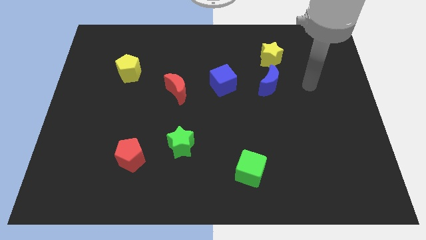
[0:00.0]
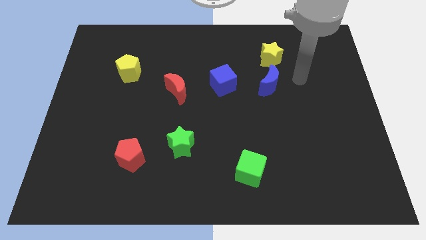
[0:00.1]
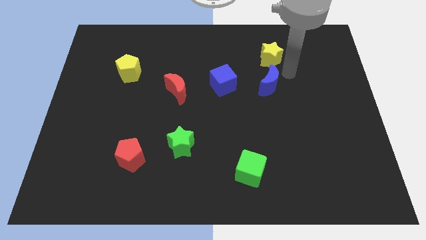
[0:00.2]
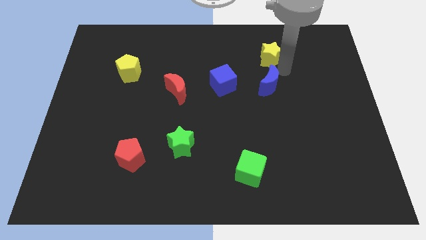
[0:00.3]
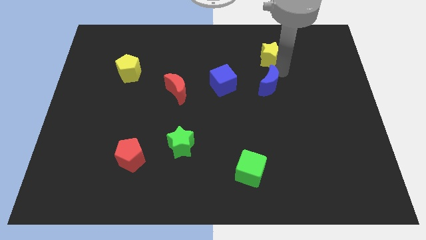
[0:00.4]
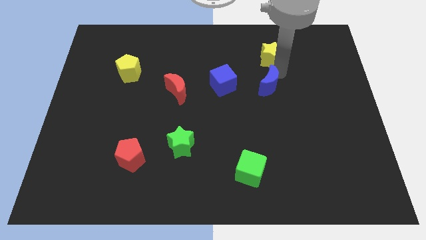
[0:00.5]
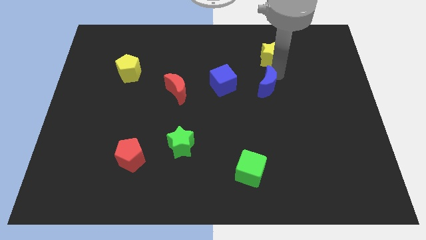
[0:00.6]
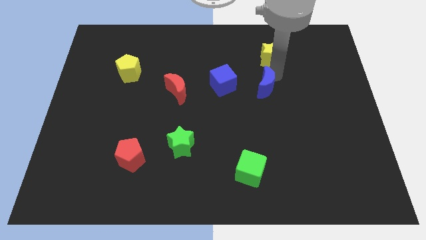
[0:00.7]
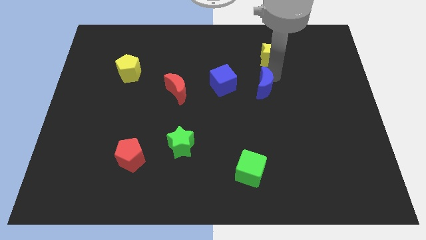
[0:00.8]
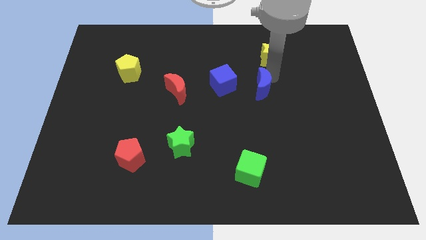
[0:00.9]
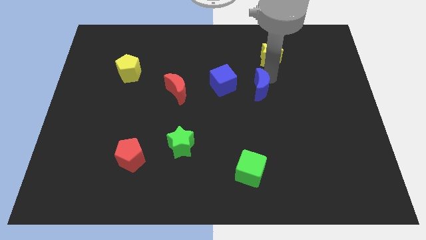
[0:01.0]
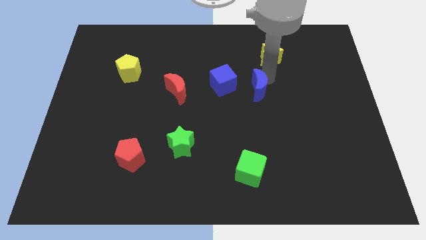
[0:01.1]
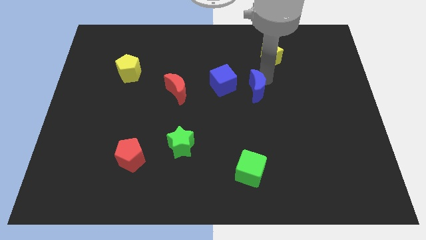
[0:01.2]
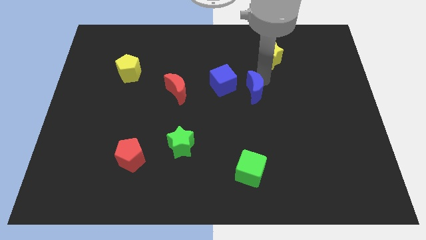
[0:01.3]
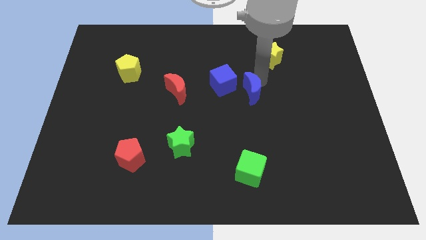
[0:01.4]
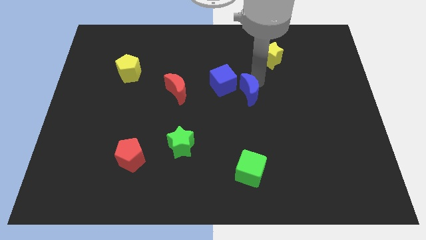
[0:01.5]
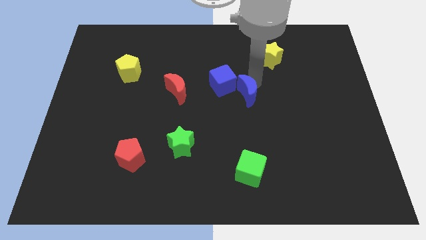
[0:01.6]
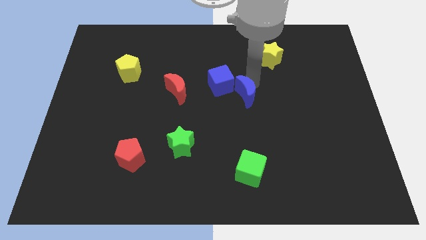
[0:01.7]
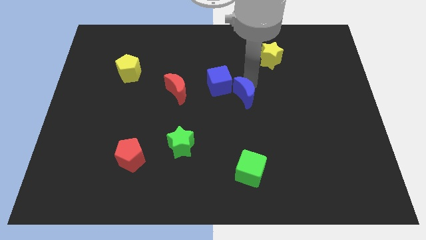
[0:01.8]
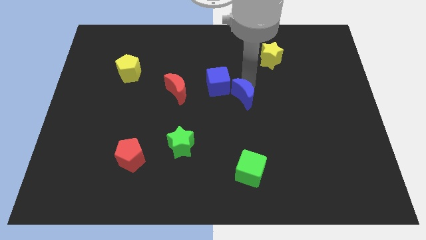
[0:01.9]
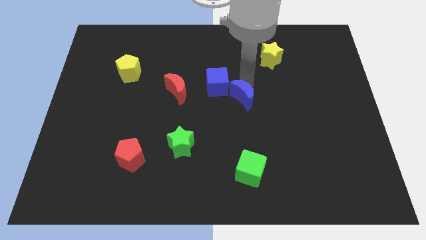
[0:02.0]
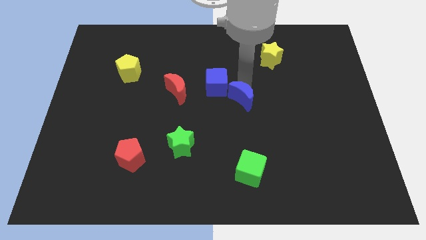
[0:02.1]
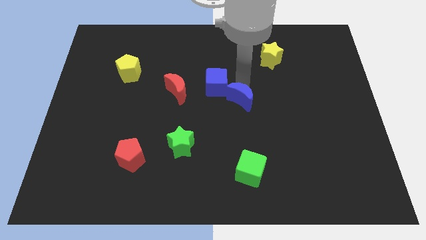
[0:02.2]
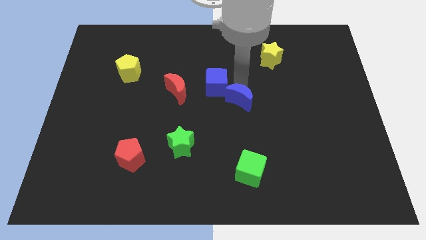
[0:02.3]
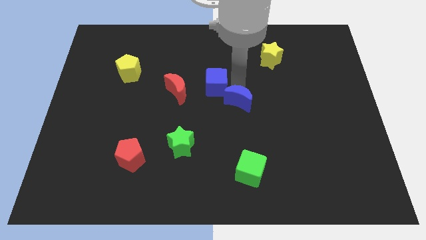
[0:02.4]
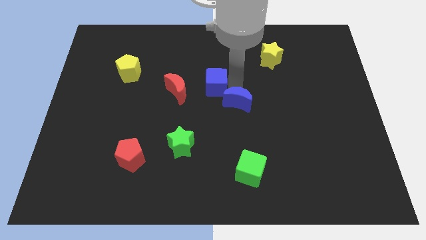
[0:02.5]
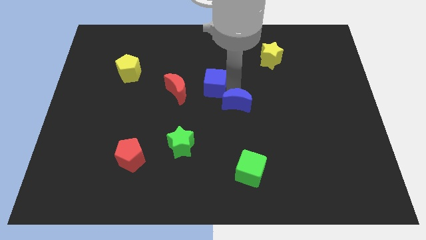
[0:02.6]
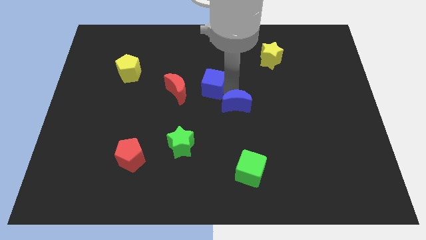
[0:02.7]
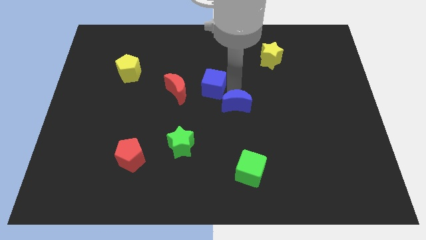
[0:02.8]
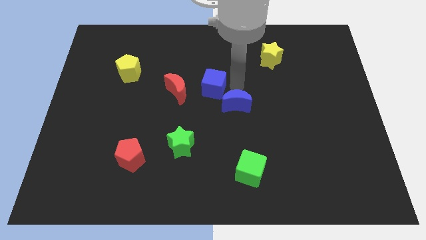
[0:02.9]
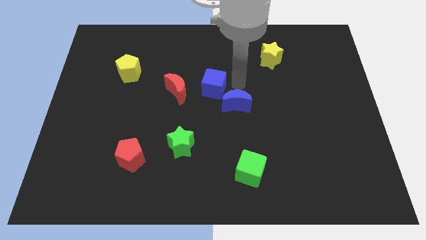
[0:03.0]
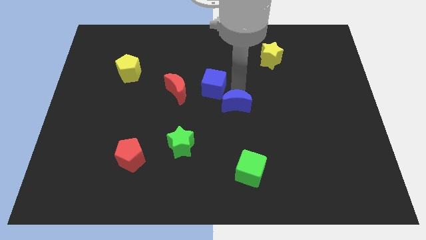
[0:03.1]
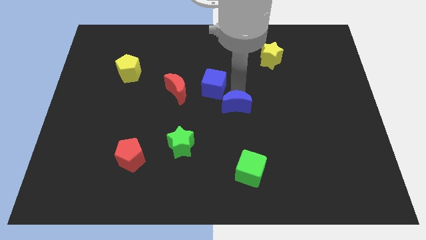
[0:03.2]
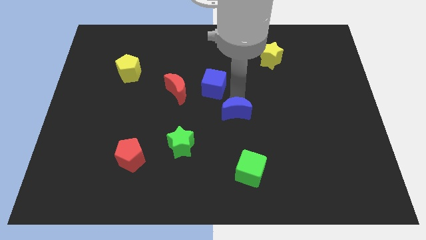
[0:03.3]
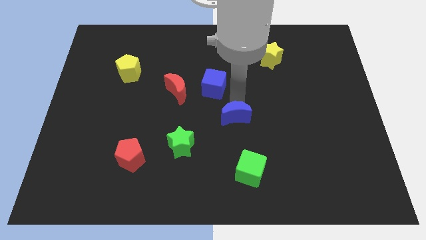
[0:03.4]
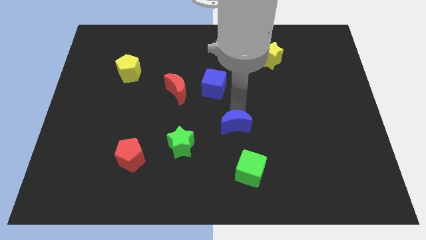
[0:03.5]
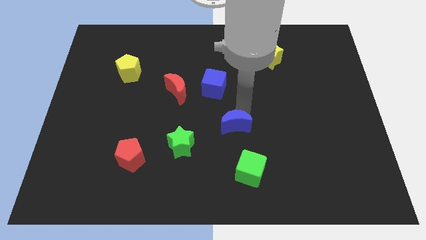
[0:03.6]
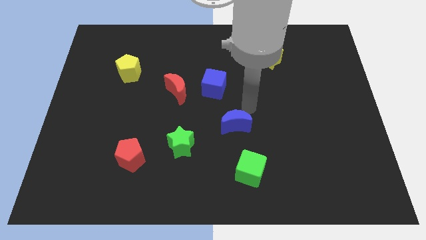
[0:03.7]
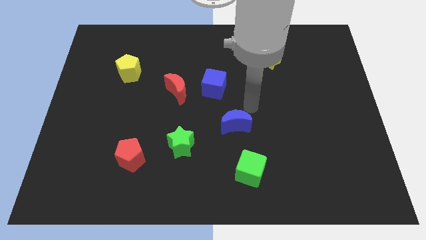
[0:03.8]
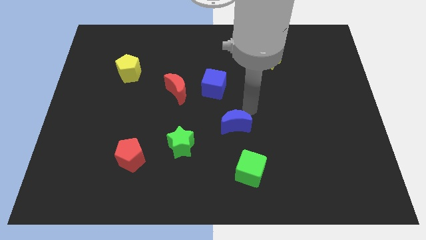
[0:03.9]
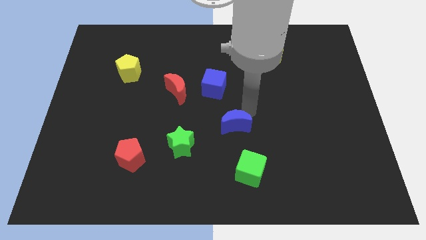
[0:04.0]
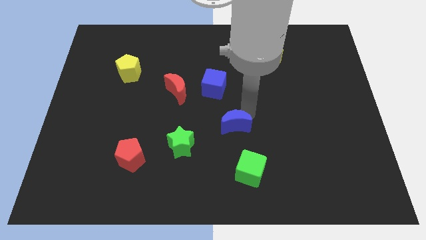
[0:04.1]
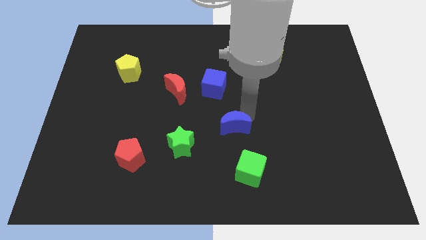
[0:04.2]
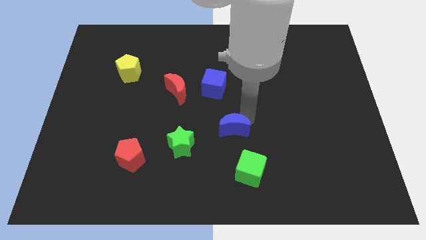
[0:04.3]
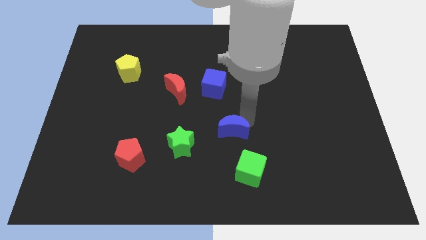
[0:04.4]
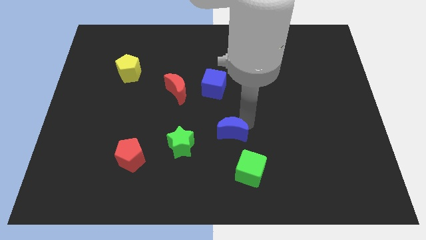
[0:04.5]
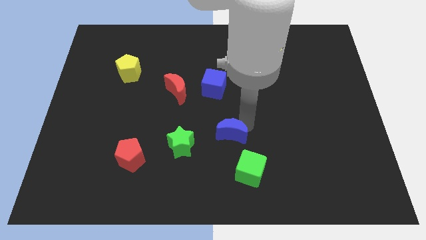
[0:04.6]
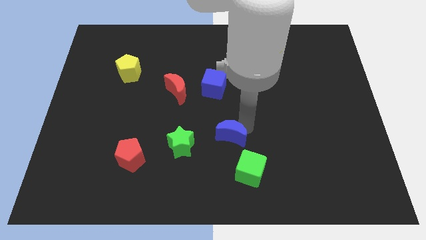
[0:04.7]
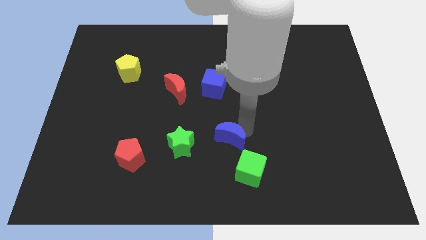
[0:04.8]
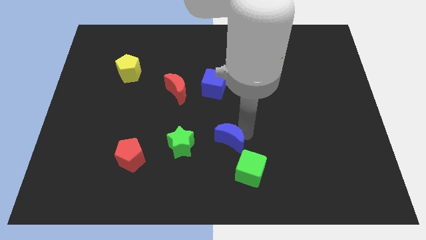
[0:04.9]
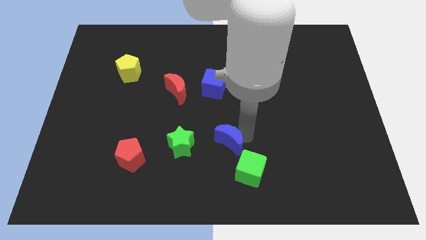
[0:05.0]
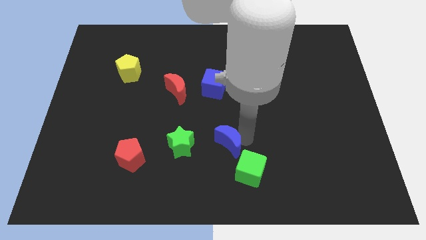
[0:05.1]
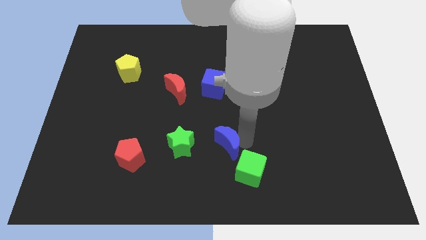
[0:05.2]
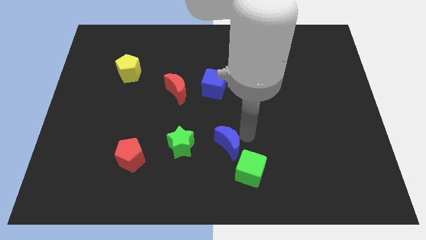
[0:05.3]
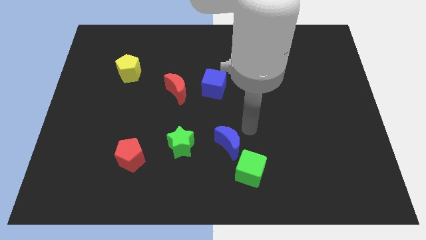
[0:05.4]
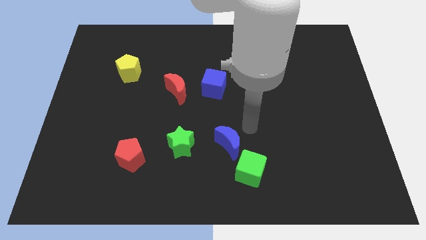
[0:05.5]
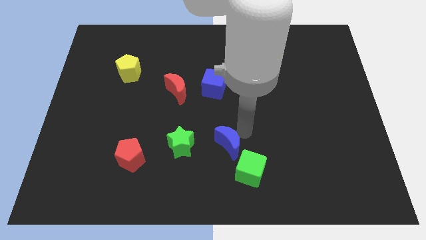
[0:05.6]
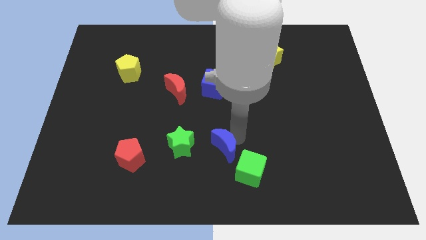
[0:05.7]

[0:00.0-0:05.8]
slide the blue moon down and to the left diagonally

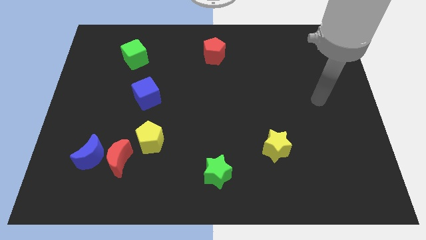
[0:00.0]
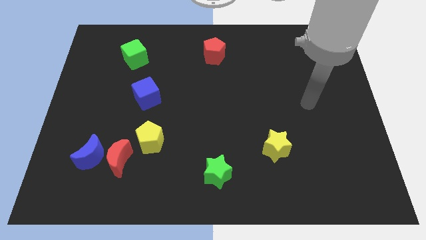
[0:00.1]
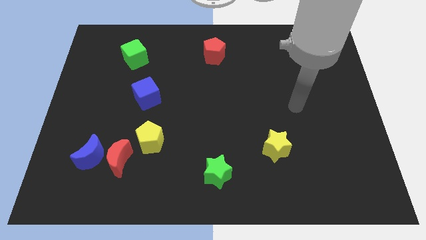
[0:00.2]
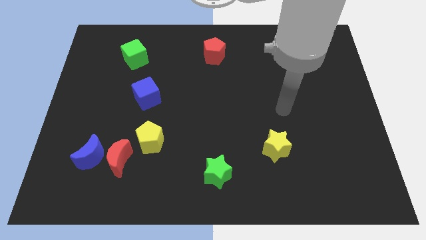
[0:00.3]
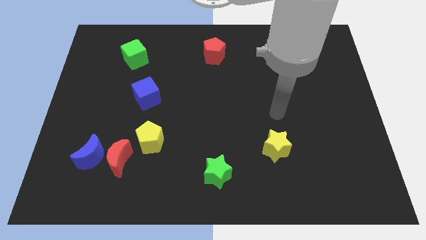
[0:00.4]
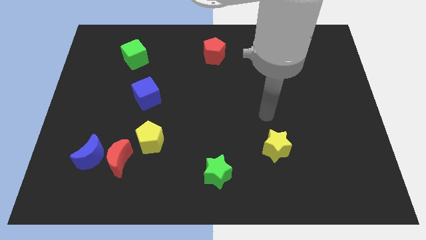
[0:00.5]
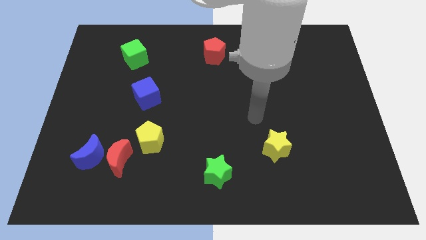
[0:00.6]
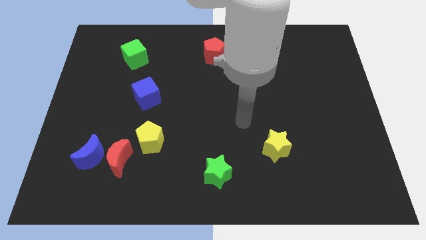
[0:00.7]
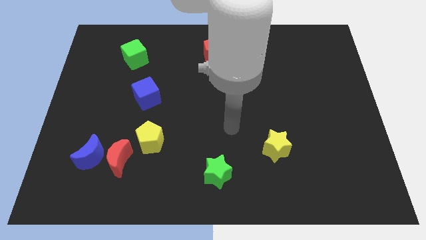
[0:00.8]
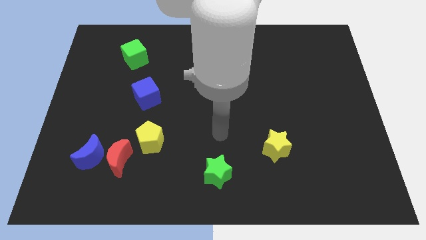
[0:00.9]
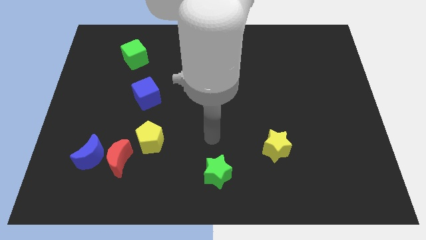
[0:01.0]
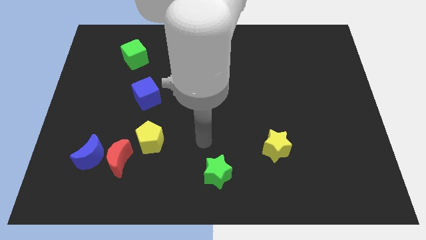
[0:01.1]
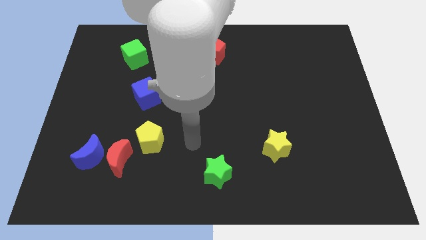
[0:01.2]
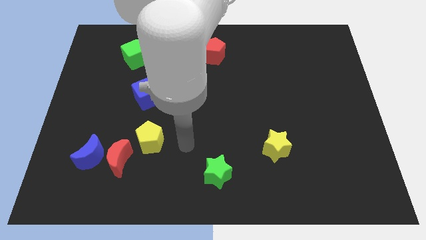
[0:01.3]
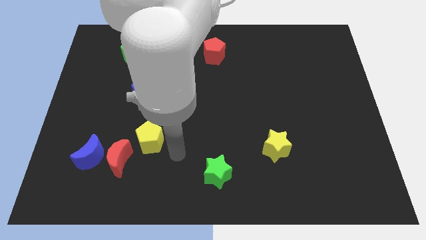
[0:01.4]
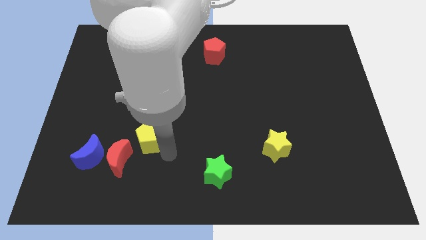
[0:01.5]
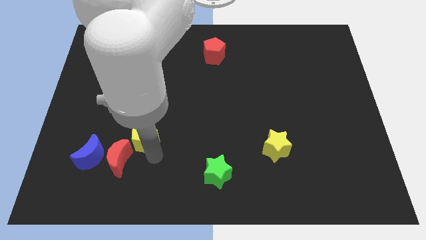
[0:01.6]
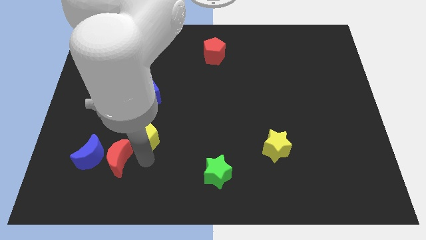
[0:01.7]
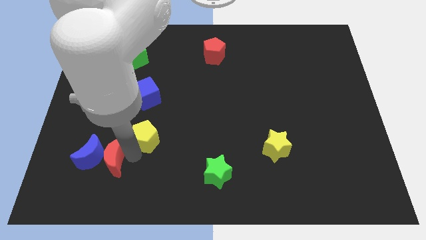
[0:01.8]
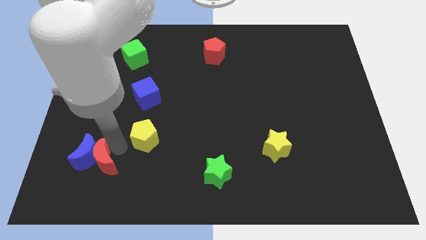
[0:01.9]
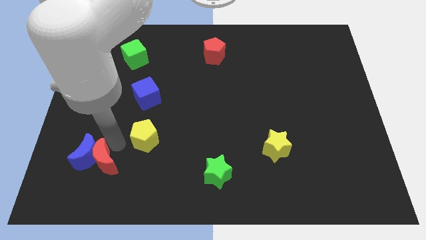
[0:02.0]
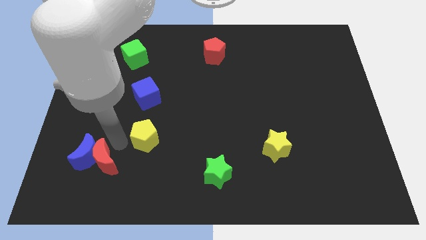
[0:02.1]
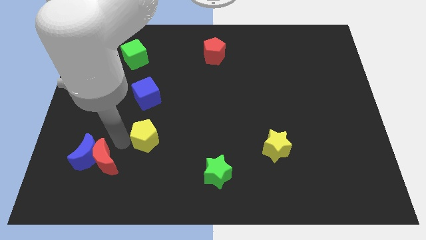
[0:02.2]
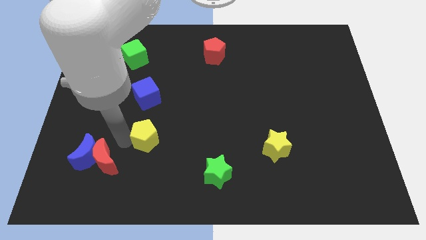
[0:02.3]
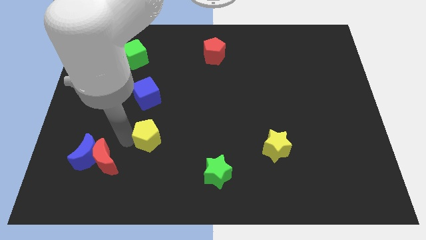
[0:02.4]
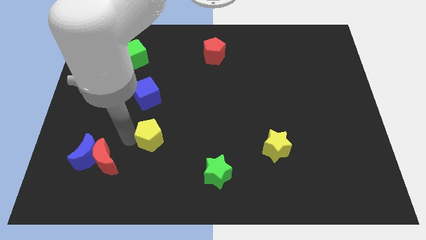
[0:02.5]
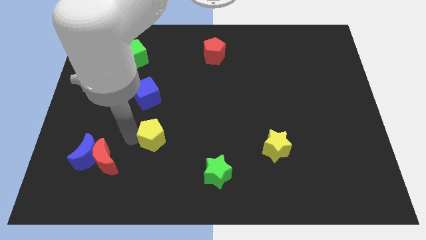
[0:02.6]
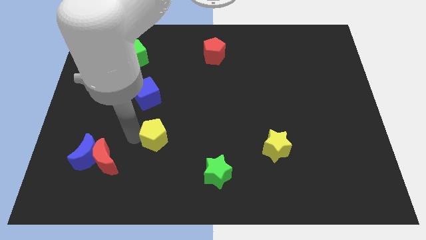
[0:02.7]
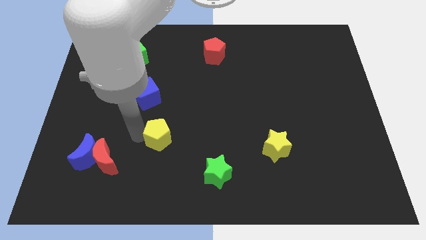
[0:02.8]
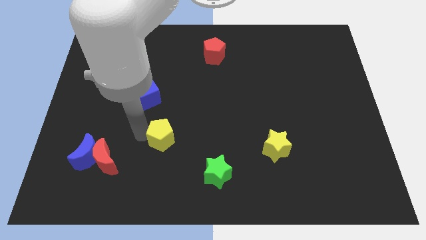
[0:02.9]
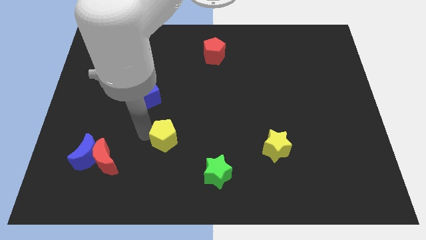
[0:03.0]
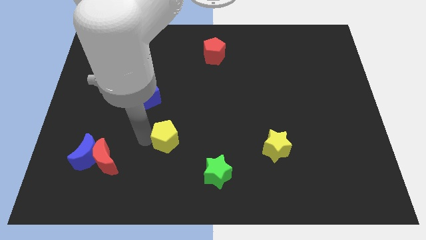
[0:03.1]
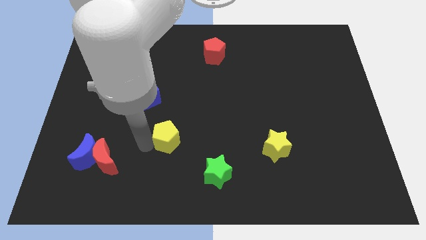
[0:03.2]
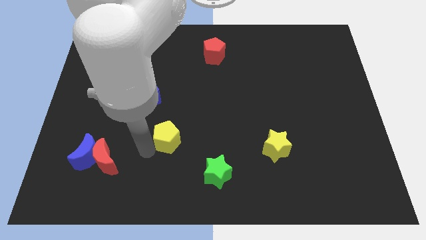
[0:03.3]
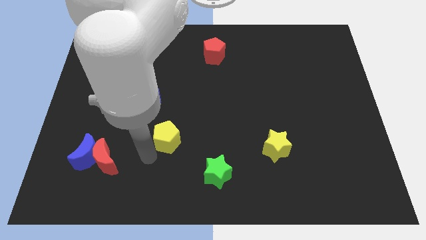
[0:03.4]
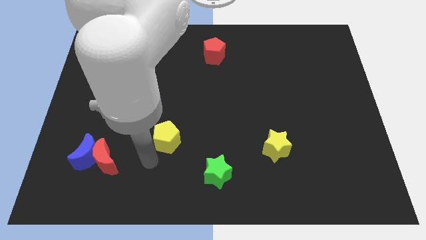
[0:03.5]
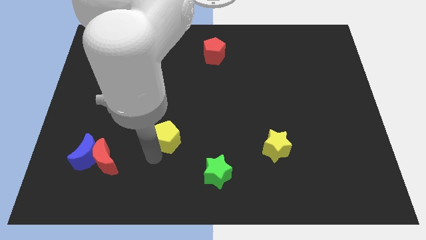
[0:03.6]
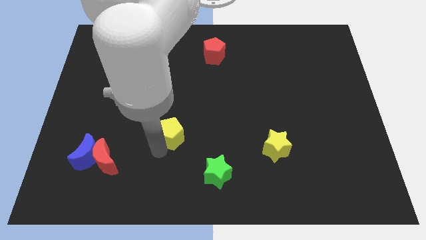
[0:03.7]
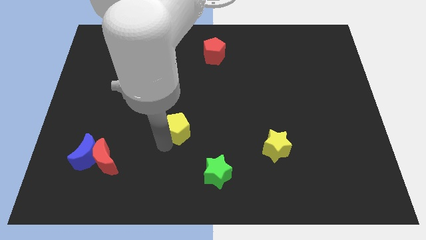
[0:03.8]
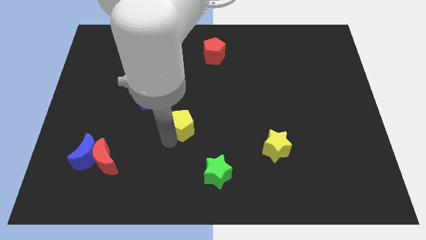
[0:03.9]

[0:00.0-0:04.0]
slightly slide the yellow pentagon up and to the right diagonally
